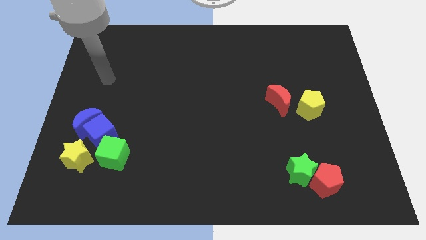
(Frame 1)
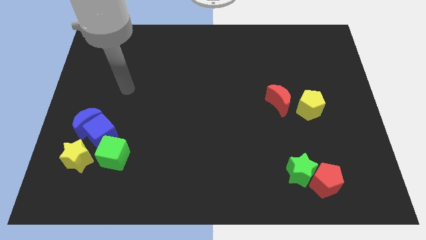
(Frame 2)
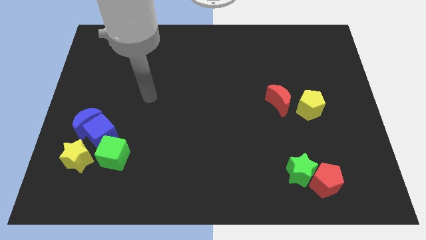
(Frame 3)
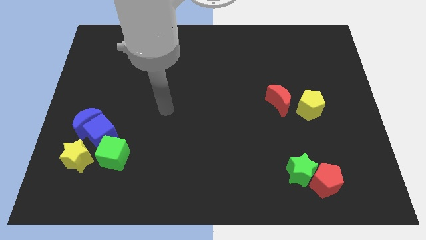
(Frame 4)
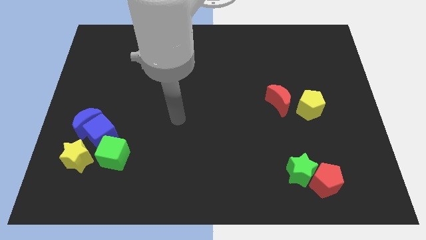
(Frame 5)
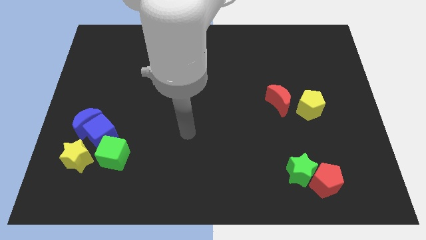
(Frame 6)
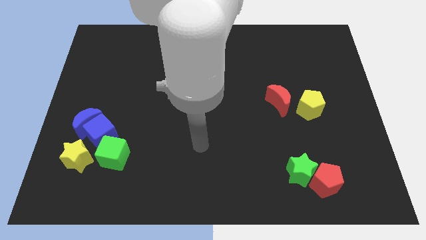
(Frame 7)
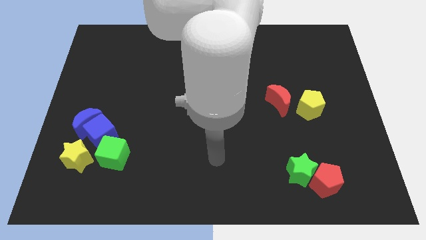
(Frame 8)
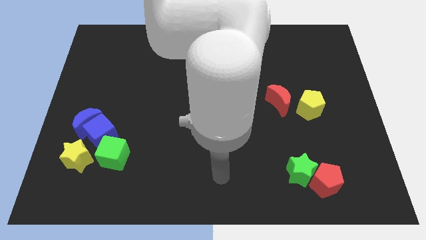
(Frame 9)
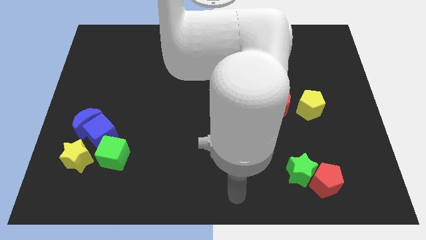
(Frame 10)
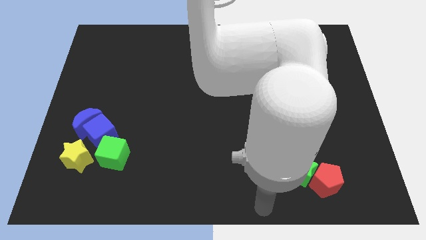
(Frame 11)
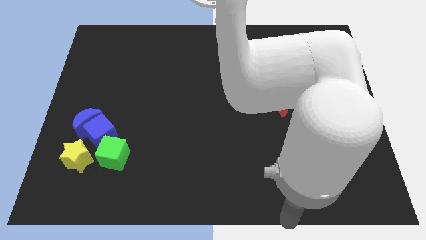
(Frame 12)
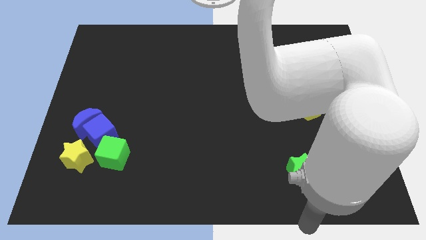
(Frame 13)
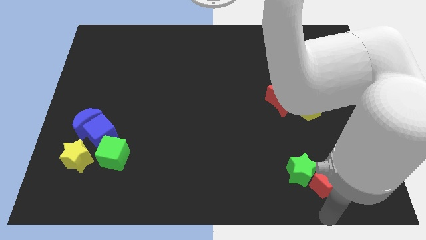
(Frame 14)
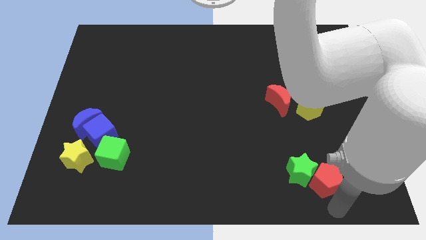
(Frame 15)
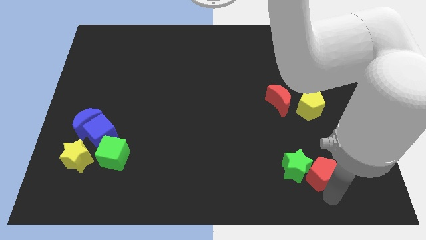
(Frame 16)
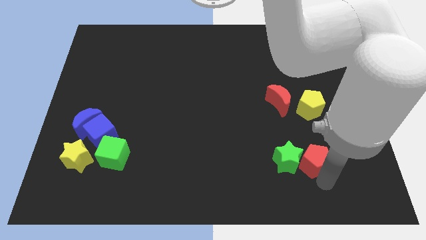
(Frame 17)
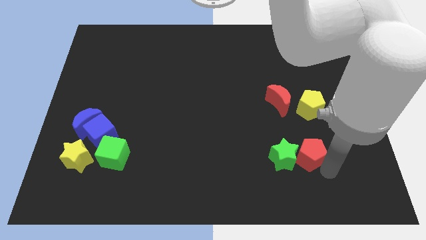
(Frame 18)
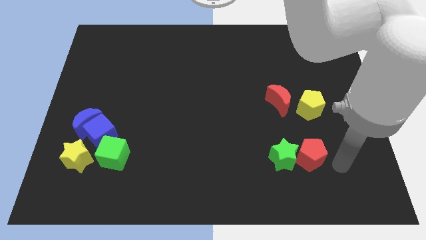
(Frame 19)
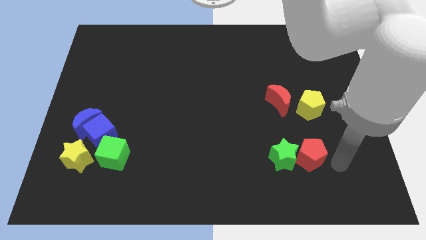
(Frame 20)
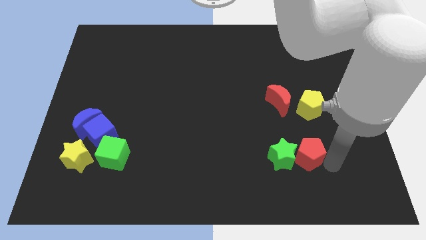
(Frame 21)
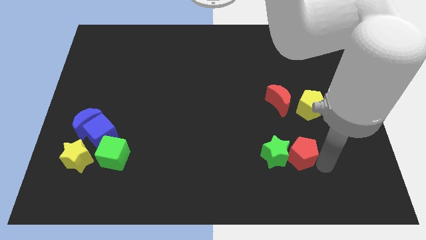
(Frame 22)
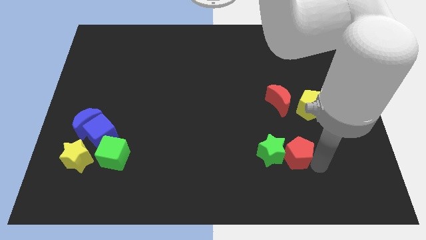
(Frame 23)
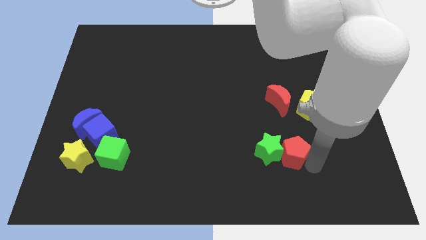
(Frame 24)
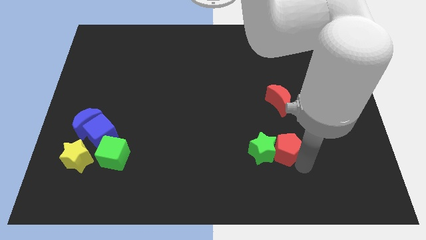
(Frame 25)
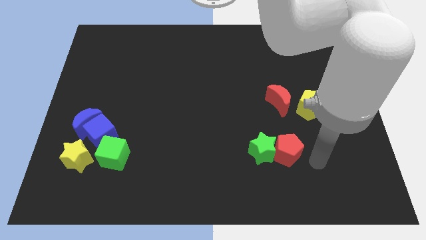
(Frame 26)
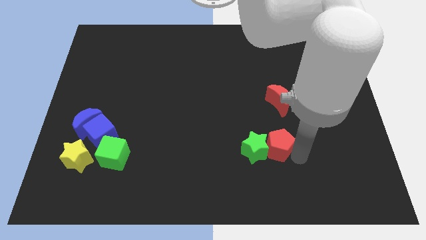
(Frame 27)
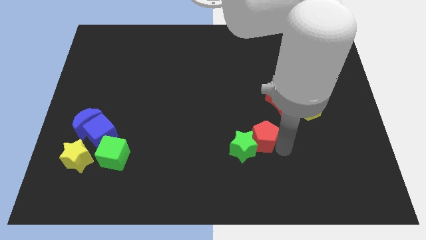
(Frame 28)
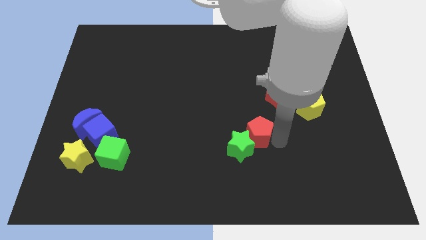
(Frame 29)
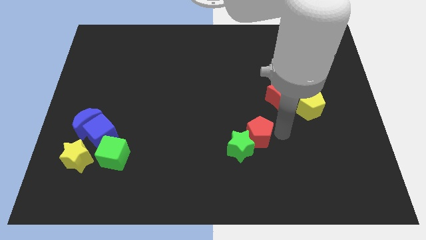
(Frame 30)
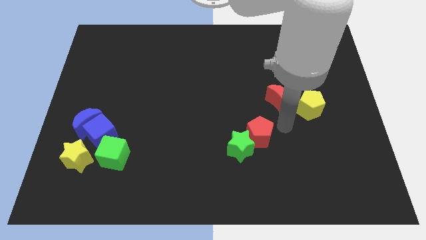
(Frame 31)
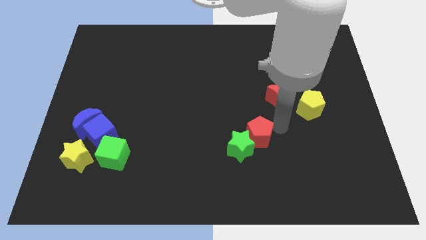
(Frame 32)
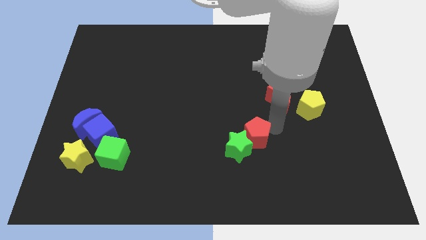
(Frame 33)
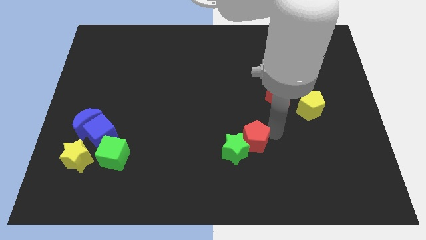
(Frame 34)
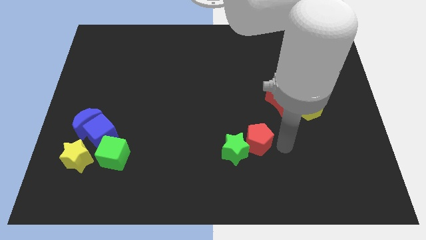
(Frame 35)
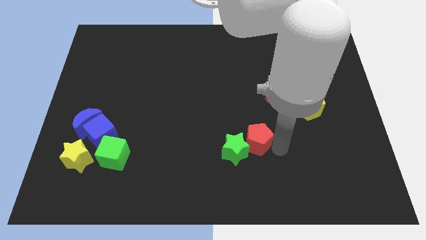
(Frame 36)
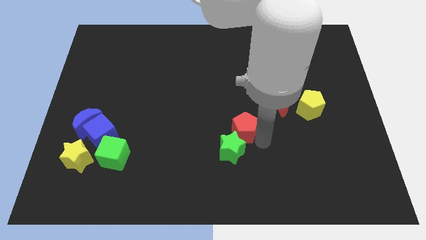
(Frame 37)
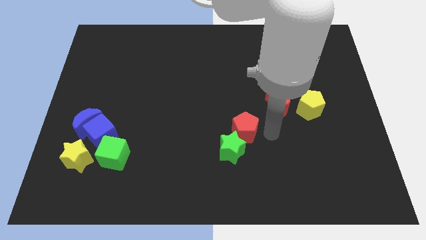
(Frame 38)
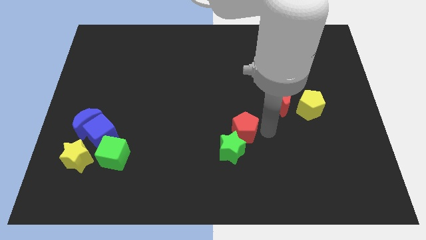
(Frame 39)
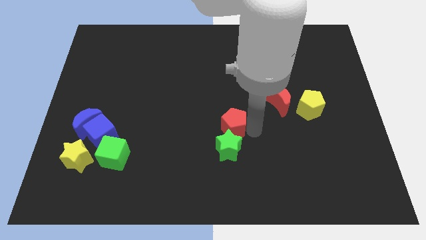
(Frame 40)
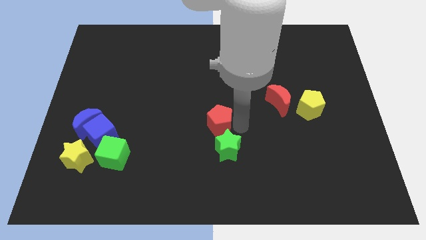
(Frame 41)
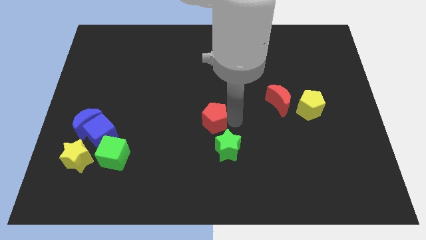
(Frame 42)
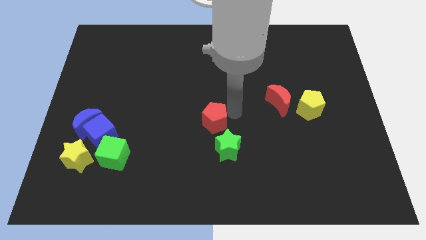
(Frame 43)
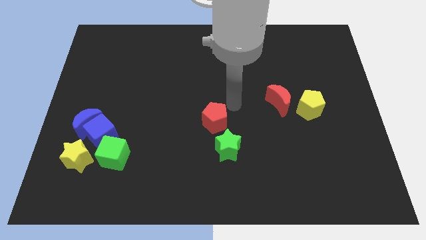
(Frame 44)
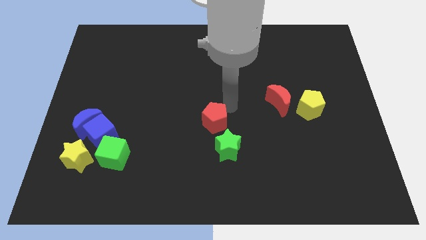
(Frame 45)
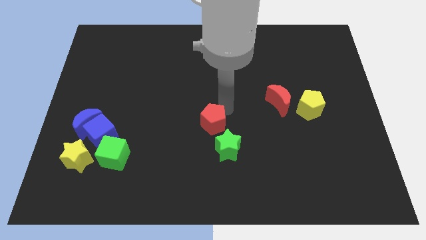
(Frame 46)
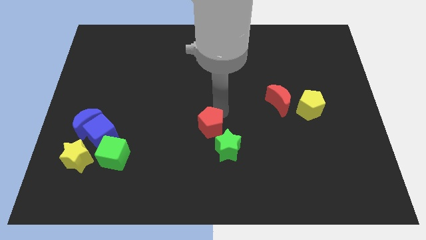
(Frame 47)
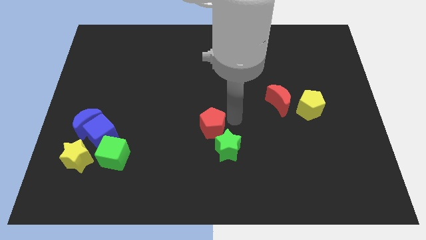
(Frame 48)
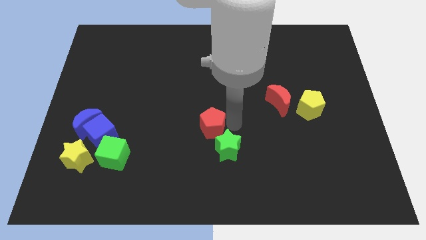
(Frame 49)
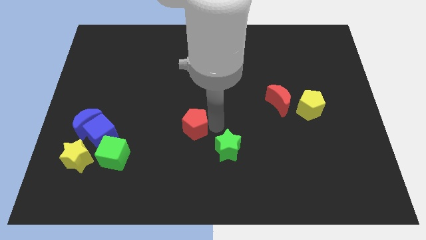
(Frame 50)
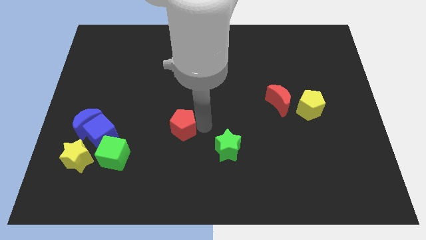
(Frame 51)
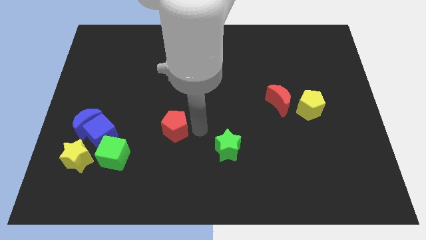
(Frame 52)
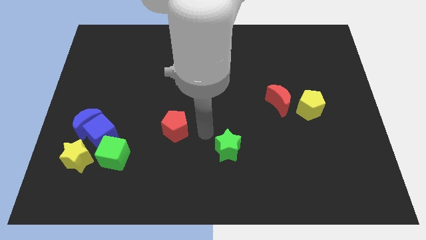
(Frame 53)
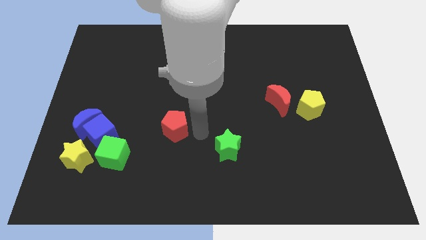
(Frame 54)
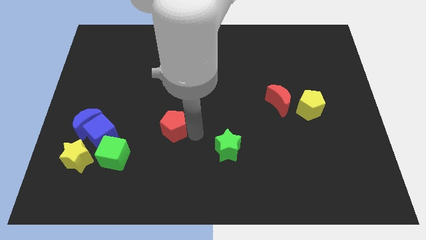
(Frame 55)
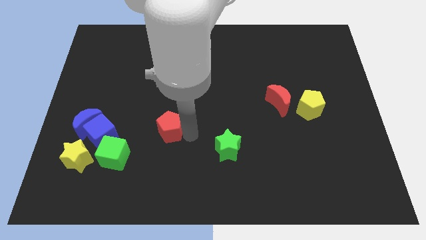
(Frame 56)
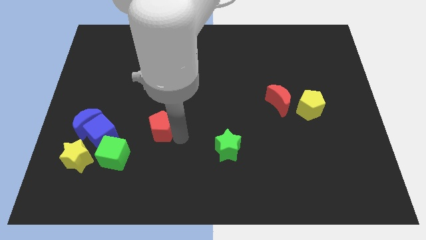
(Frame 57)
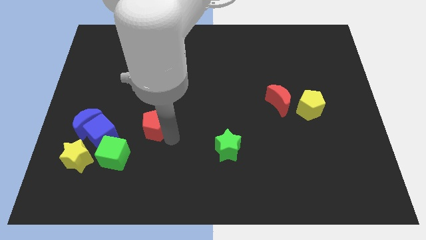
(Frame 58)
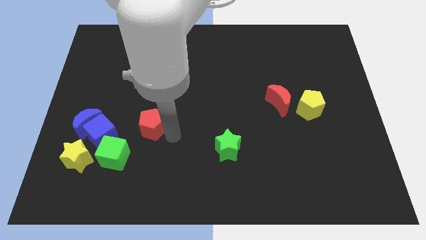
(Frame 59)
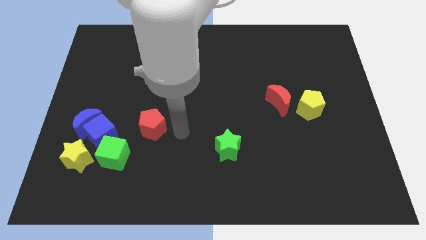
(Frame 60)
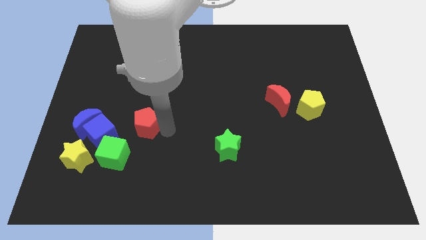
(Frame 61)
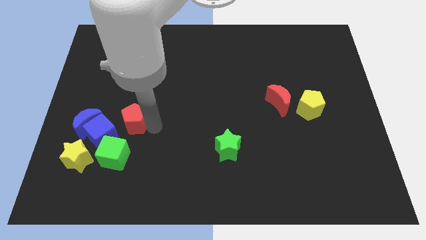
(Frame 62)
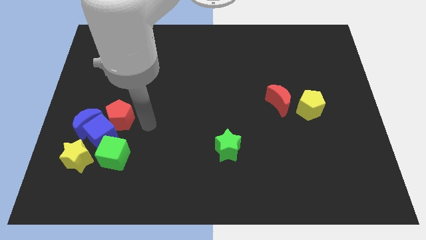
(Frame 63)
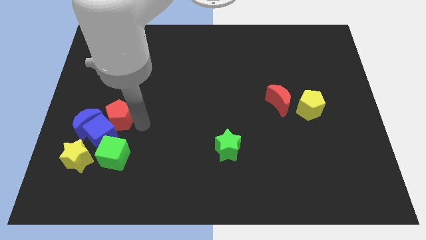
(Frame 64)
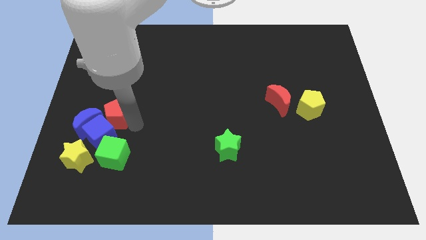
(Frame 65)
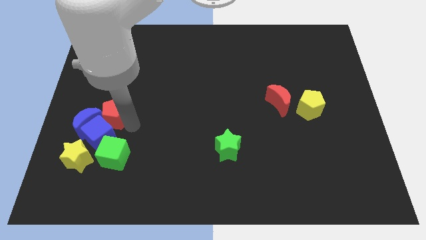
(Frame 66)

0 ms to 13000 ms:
put the red pentagon next to the blue moon
